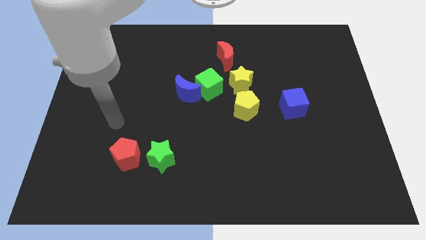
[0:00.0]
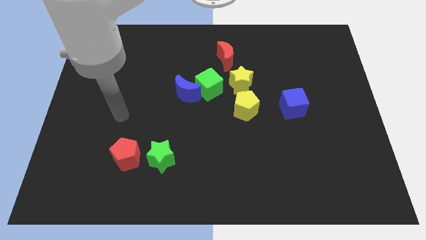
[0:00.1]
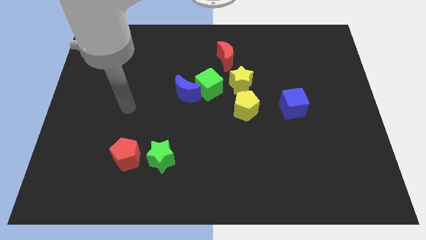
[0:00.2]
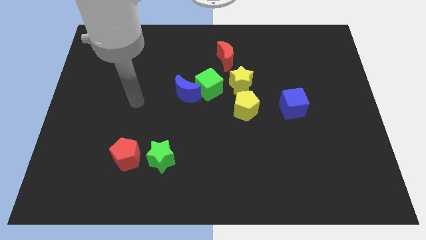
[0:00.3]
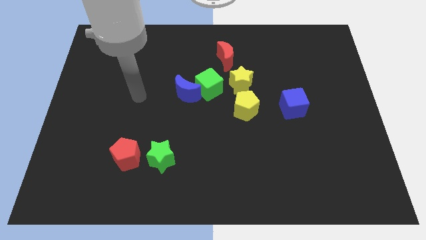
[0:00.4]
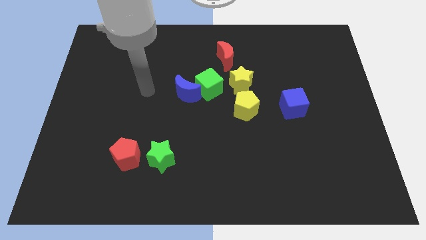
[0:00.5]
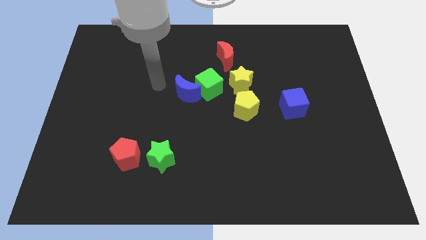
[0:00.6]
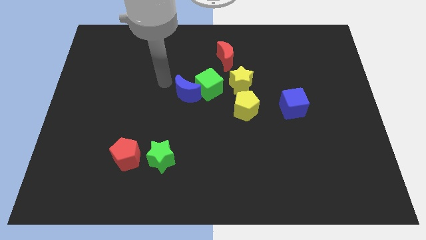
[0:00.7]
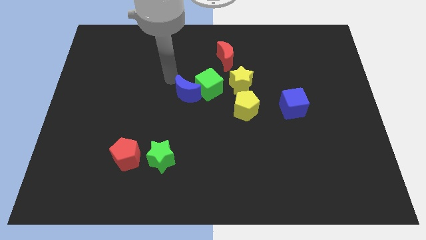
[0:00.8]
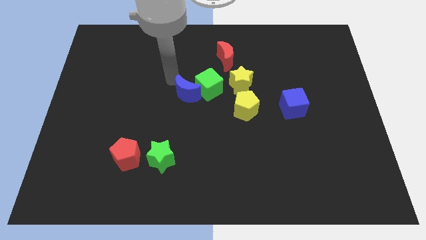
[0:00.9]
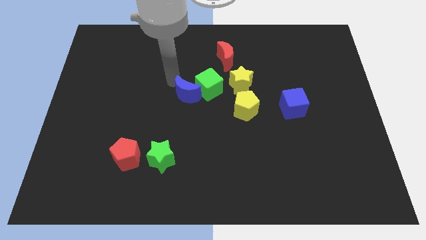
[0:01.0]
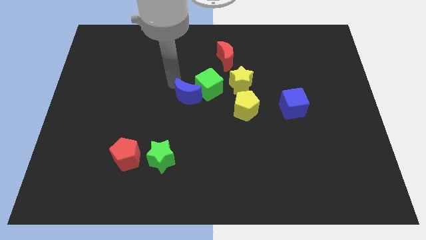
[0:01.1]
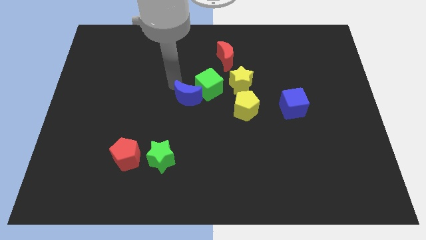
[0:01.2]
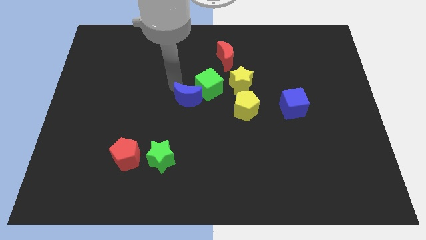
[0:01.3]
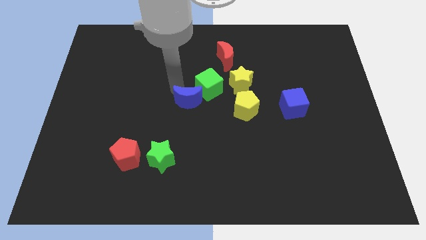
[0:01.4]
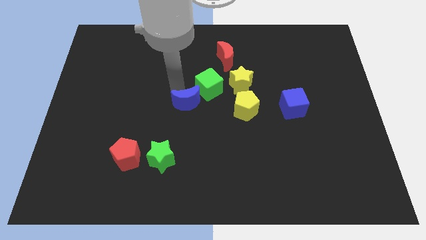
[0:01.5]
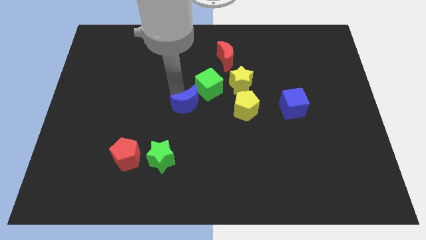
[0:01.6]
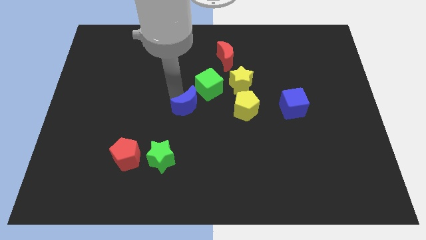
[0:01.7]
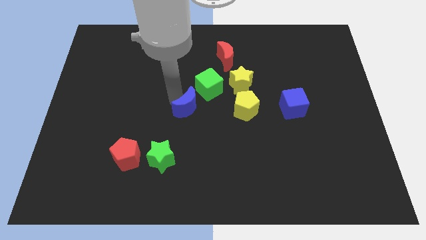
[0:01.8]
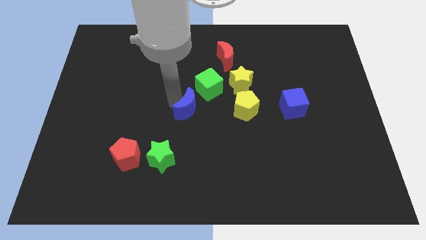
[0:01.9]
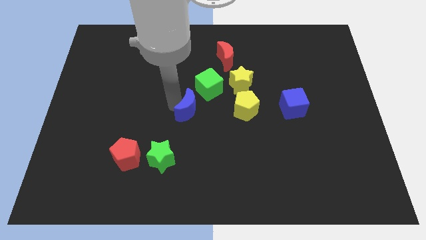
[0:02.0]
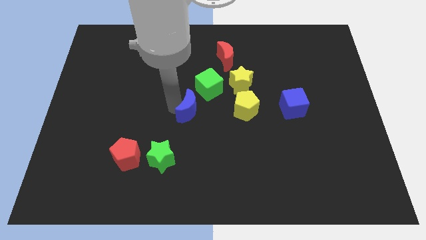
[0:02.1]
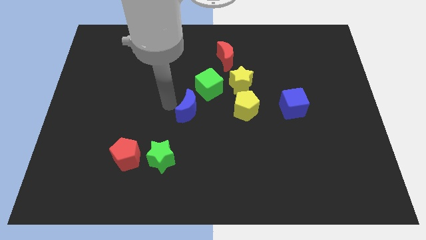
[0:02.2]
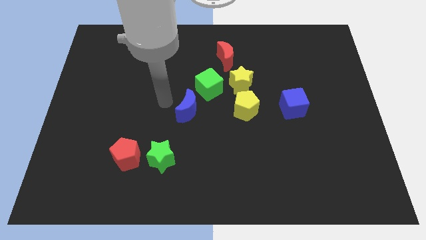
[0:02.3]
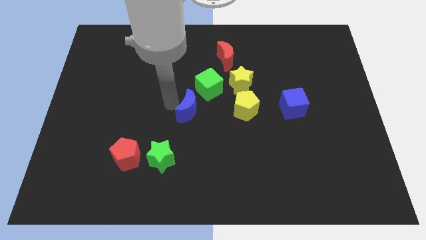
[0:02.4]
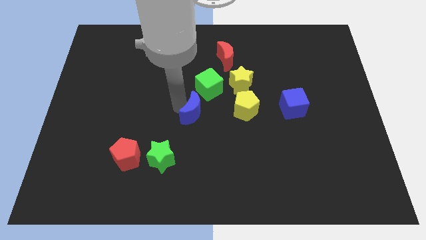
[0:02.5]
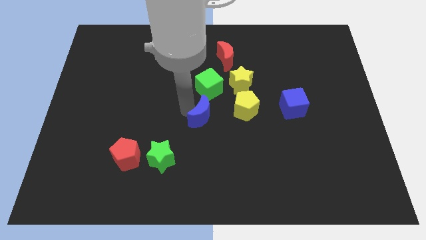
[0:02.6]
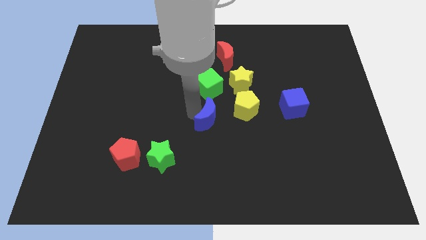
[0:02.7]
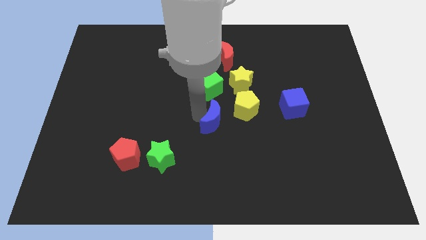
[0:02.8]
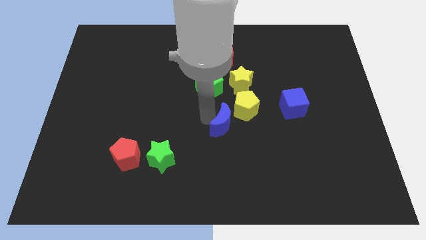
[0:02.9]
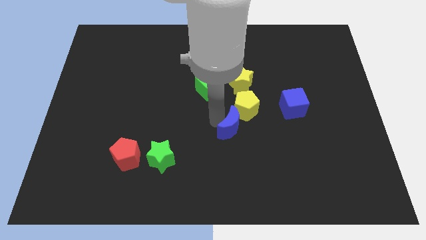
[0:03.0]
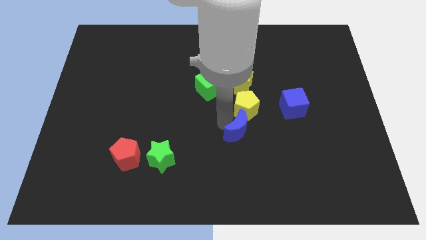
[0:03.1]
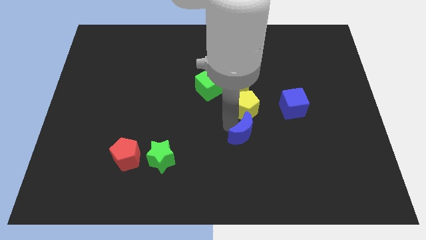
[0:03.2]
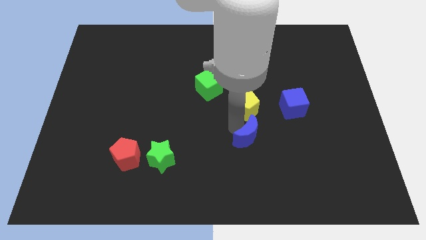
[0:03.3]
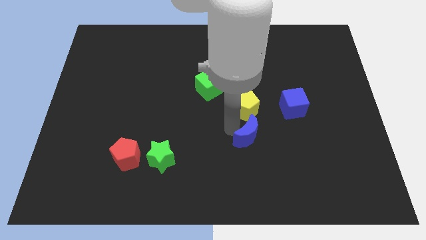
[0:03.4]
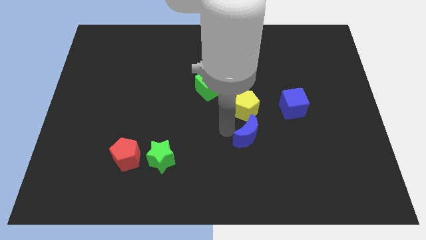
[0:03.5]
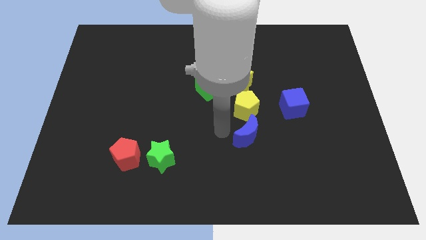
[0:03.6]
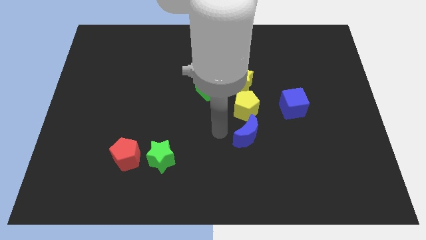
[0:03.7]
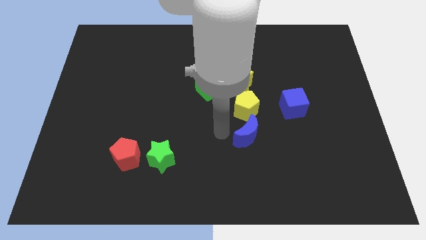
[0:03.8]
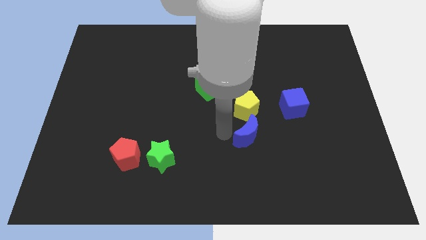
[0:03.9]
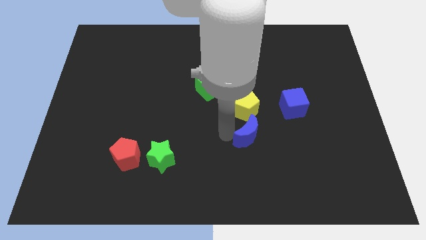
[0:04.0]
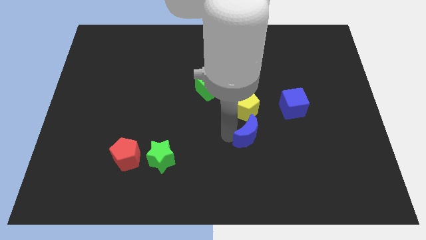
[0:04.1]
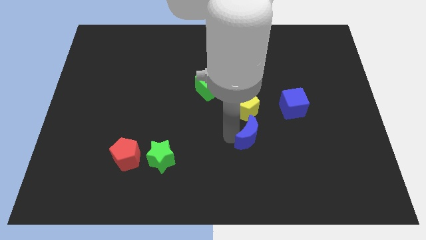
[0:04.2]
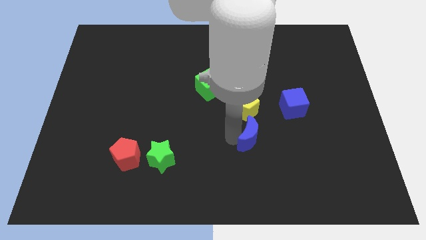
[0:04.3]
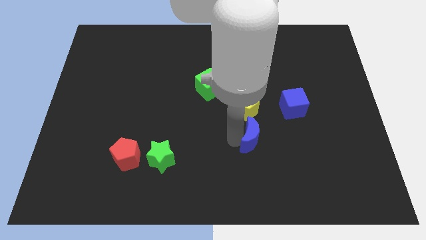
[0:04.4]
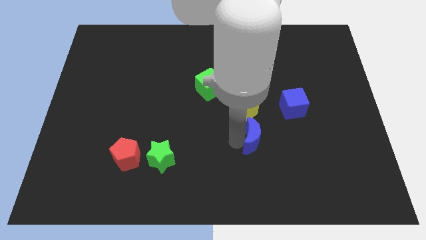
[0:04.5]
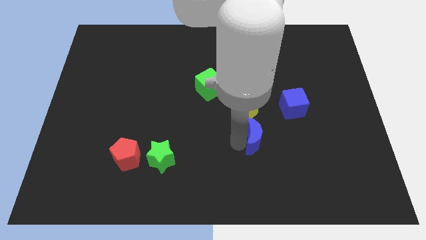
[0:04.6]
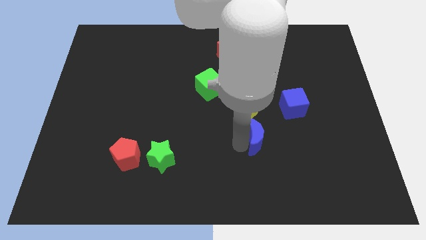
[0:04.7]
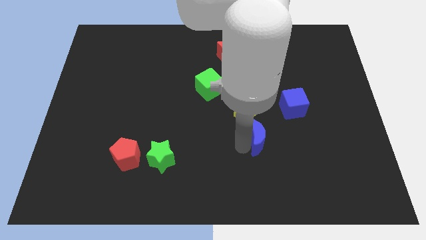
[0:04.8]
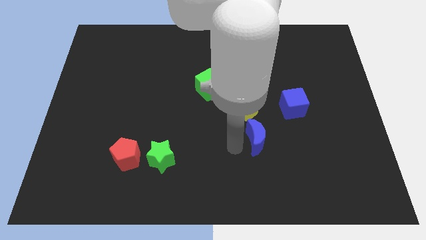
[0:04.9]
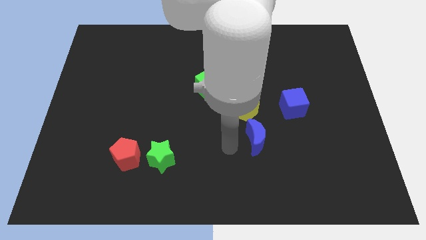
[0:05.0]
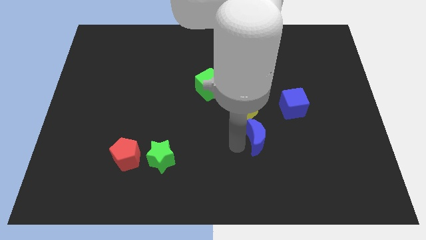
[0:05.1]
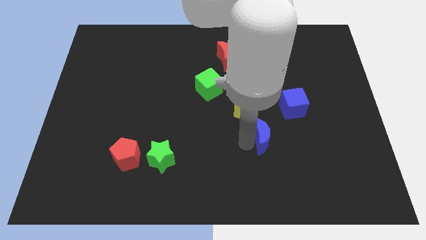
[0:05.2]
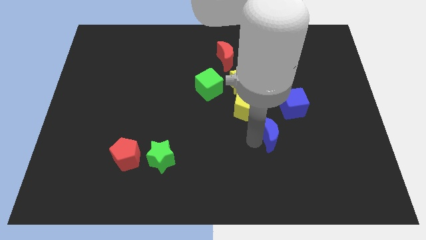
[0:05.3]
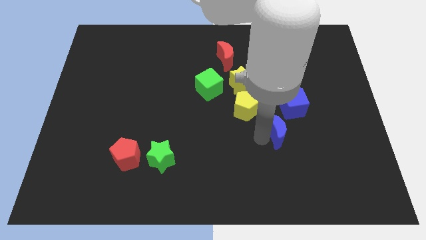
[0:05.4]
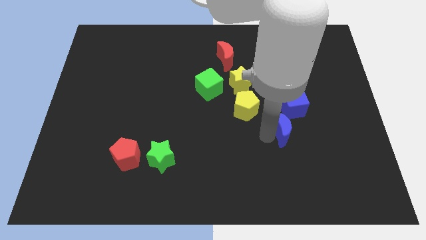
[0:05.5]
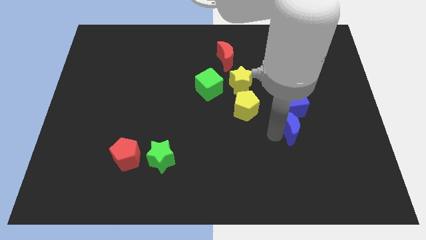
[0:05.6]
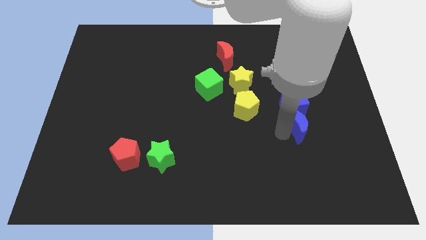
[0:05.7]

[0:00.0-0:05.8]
move the blue moon right

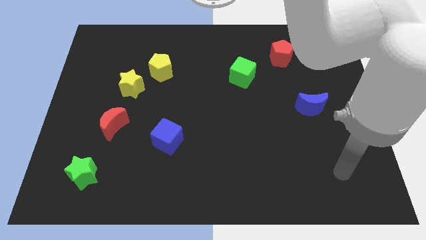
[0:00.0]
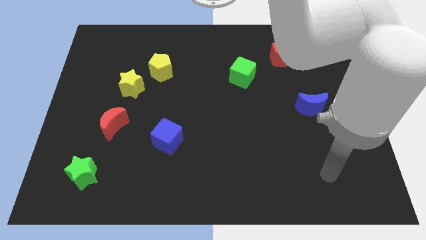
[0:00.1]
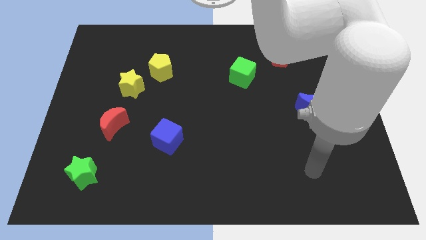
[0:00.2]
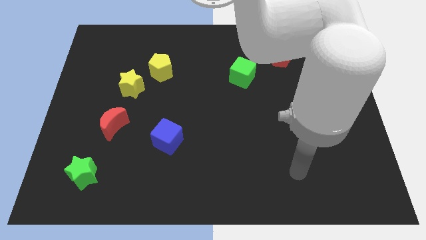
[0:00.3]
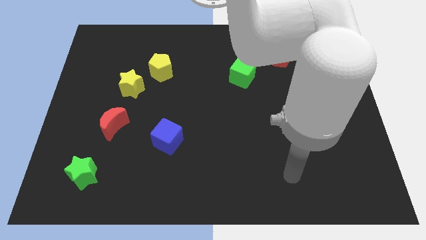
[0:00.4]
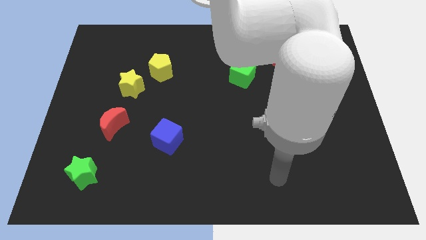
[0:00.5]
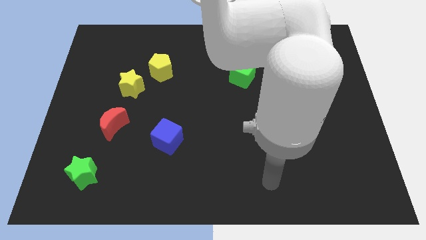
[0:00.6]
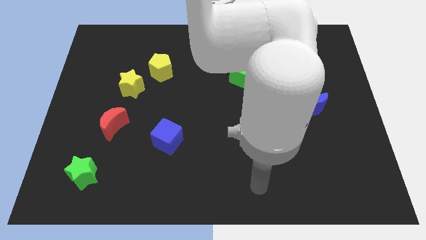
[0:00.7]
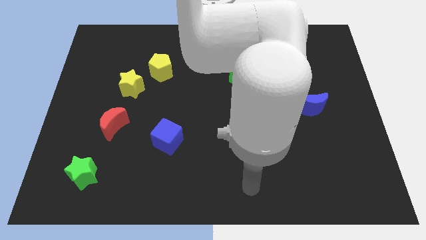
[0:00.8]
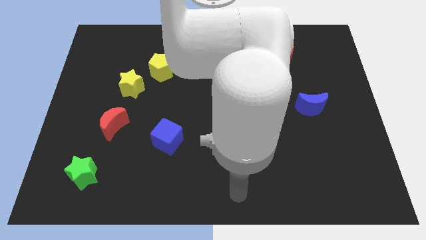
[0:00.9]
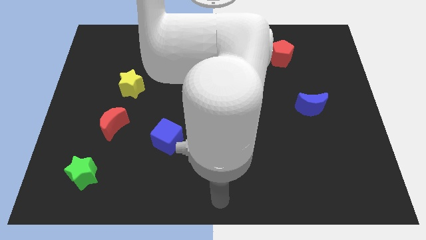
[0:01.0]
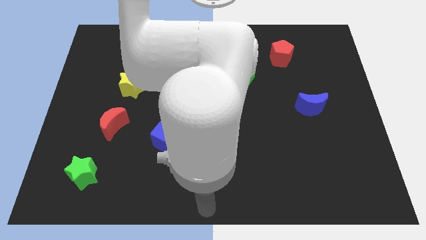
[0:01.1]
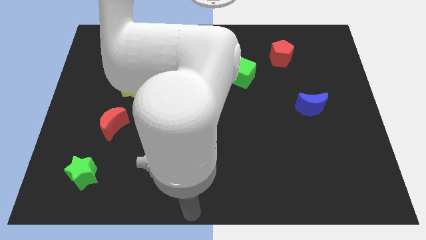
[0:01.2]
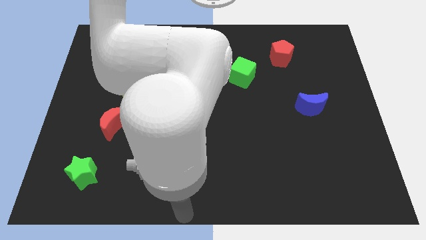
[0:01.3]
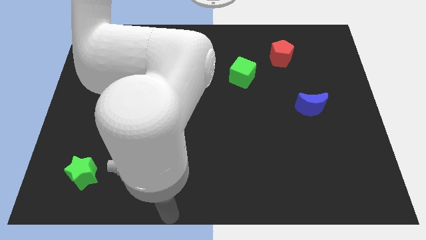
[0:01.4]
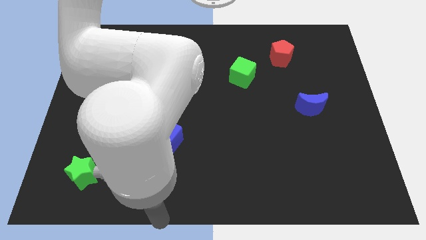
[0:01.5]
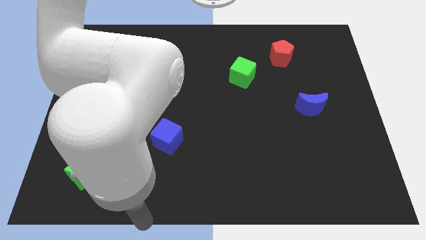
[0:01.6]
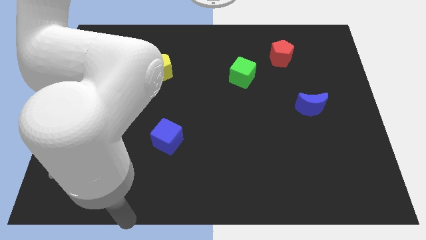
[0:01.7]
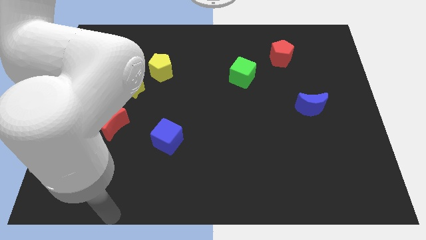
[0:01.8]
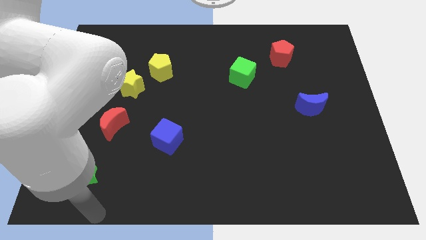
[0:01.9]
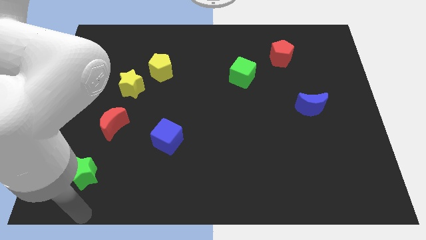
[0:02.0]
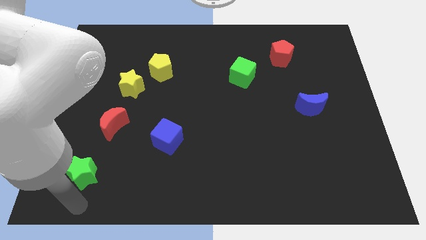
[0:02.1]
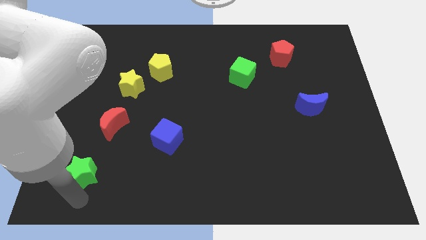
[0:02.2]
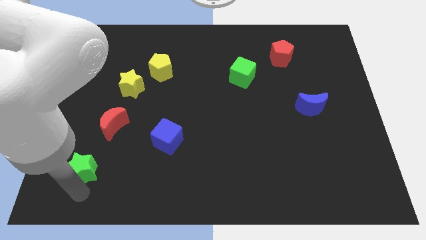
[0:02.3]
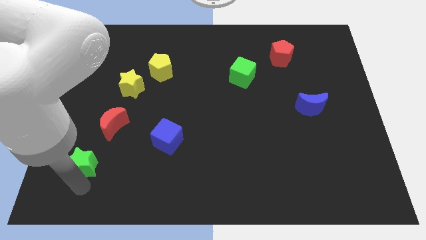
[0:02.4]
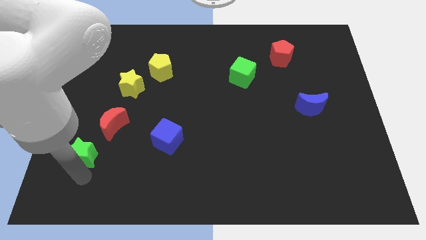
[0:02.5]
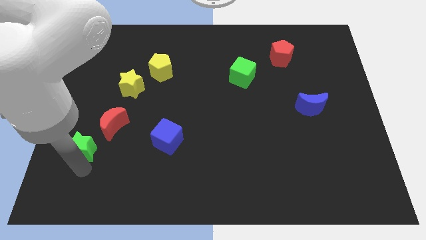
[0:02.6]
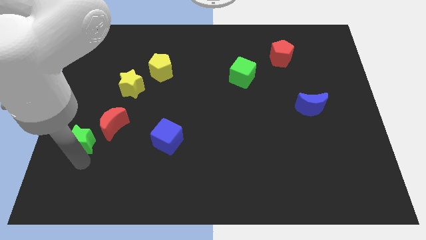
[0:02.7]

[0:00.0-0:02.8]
push the green star a bit upwards
